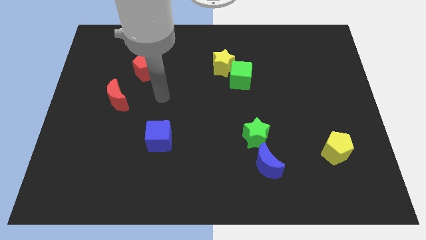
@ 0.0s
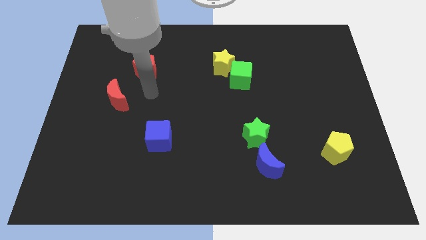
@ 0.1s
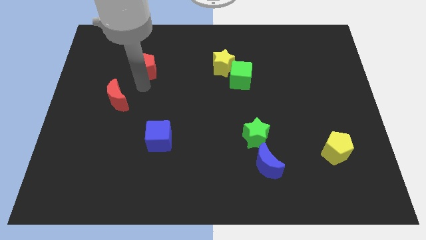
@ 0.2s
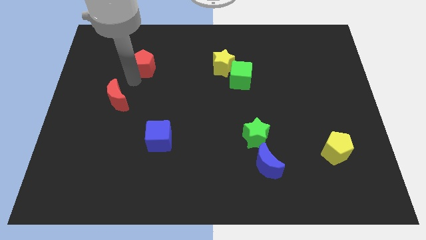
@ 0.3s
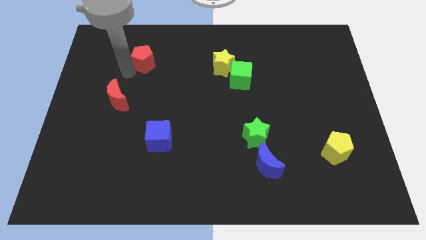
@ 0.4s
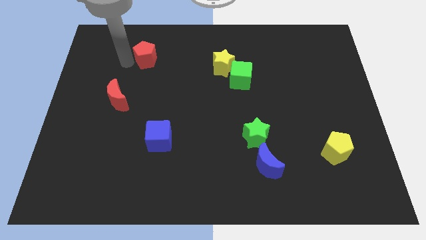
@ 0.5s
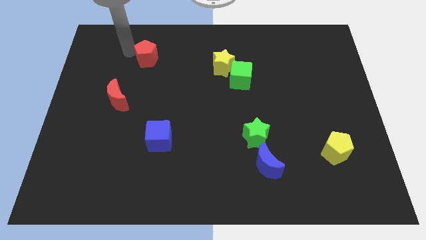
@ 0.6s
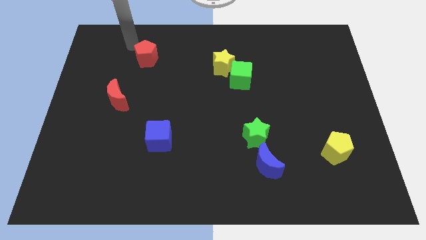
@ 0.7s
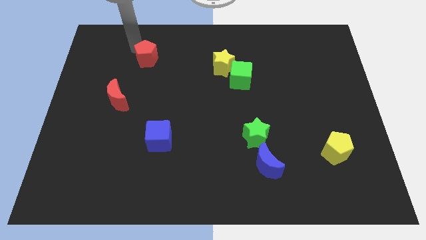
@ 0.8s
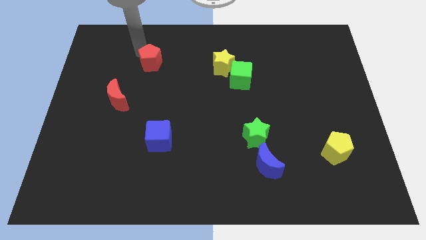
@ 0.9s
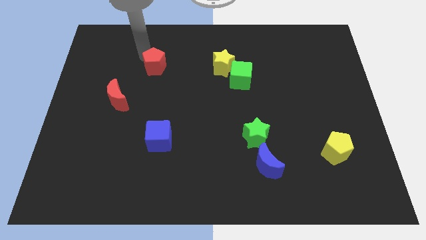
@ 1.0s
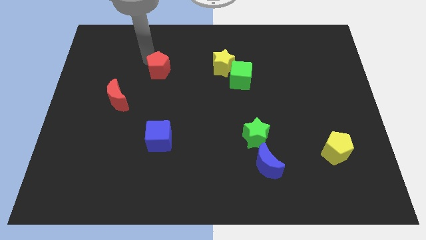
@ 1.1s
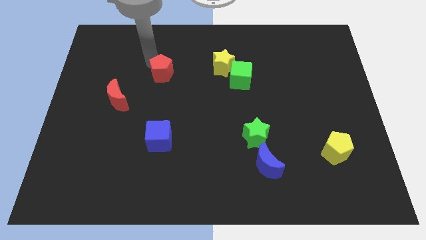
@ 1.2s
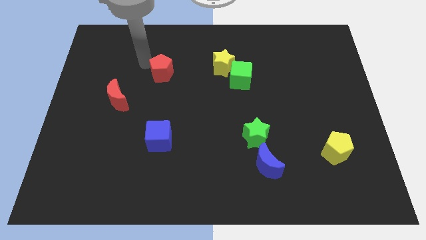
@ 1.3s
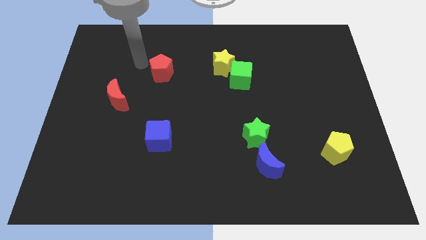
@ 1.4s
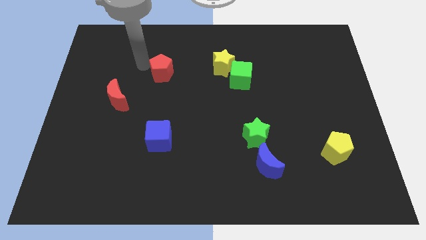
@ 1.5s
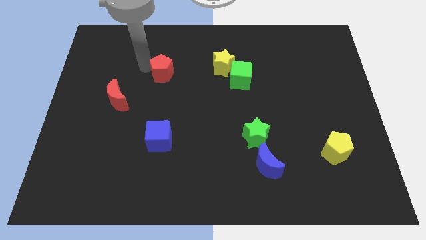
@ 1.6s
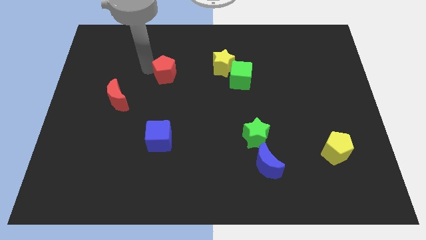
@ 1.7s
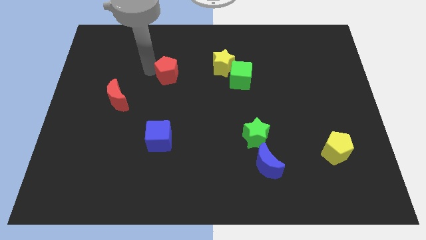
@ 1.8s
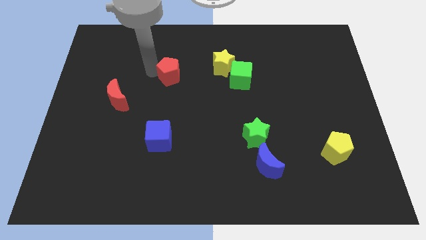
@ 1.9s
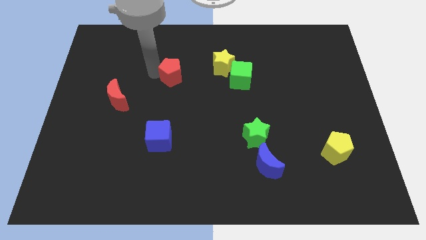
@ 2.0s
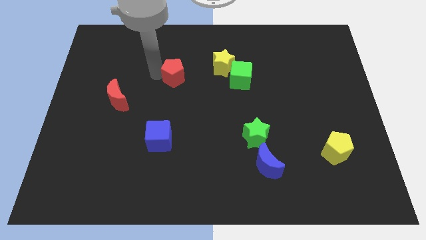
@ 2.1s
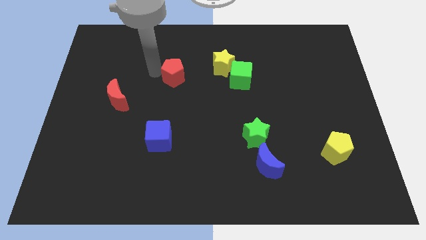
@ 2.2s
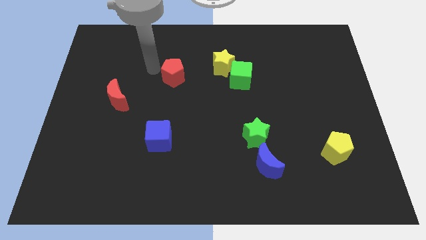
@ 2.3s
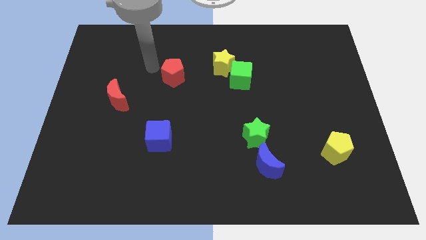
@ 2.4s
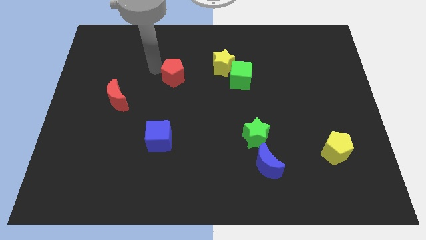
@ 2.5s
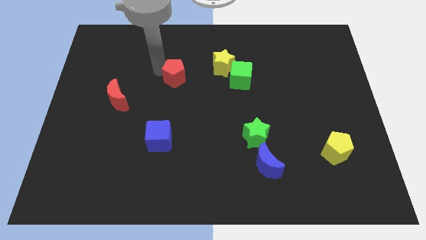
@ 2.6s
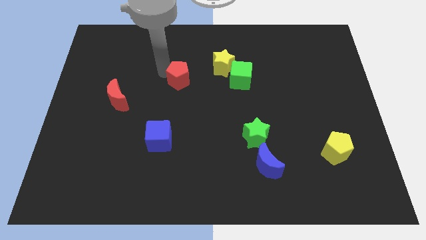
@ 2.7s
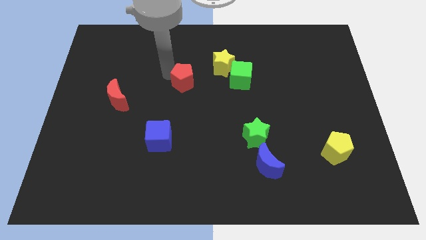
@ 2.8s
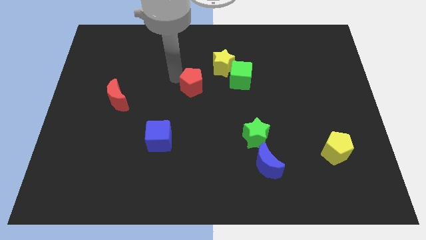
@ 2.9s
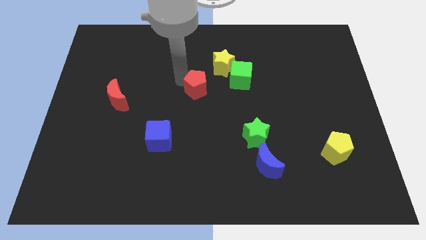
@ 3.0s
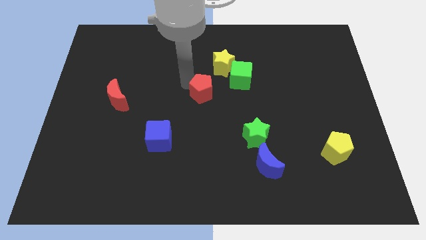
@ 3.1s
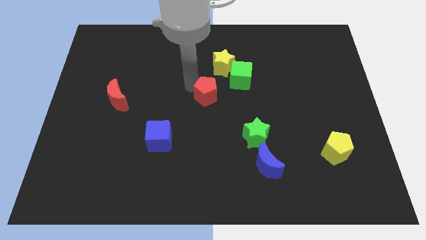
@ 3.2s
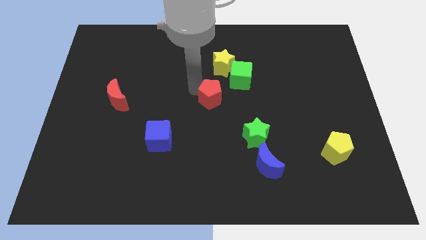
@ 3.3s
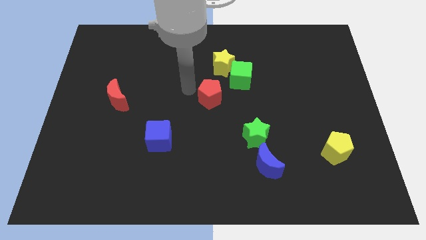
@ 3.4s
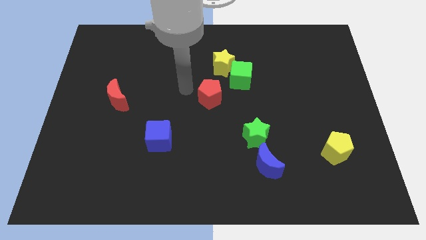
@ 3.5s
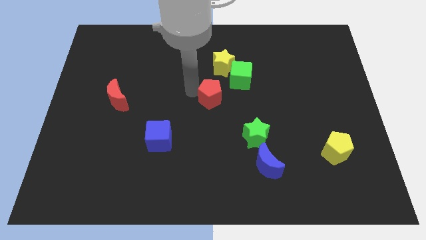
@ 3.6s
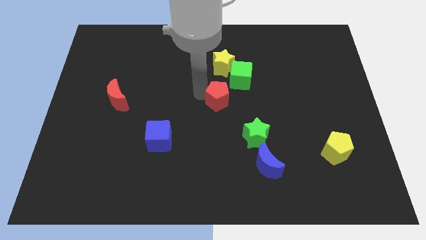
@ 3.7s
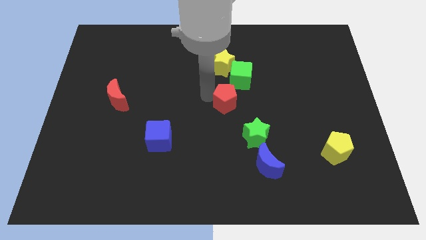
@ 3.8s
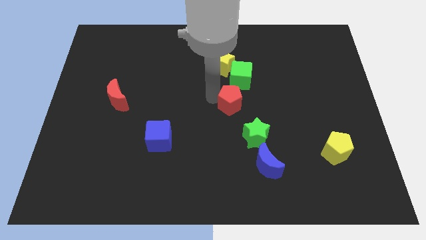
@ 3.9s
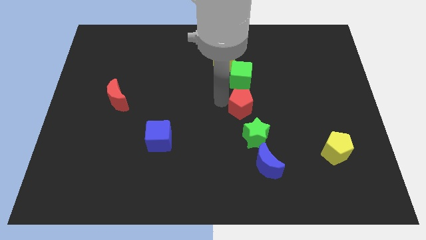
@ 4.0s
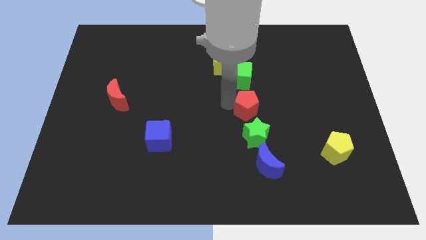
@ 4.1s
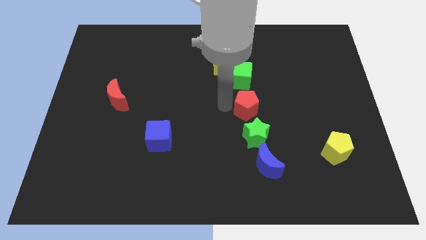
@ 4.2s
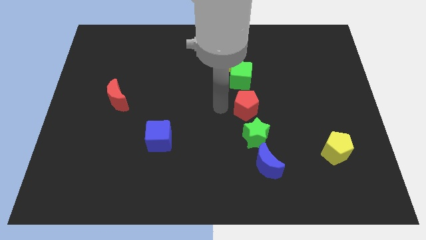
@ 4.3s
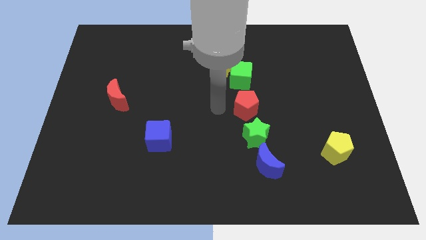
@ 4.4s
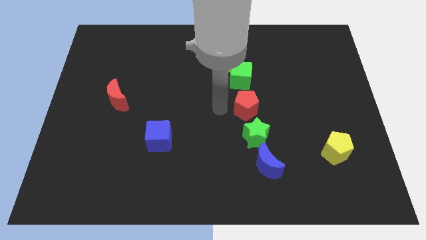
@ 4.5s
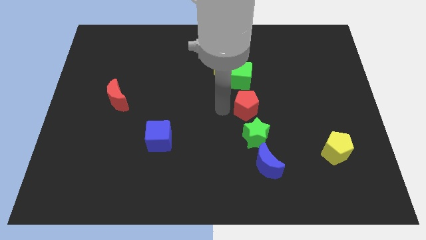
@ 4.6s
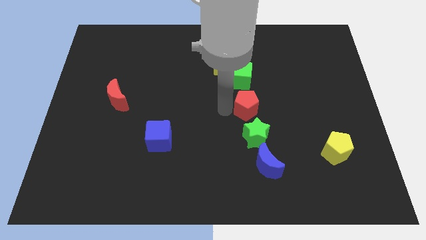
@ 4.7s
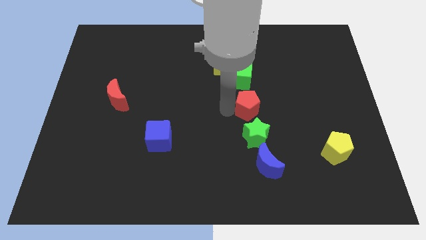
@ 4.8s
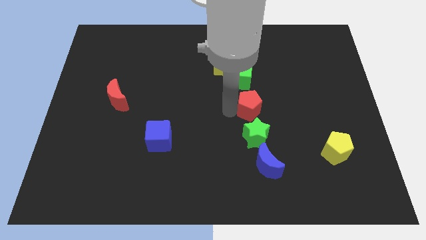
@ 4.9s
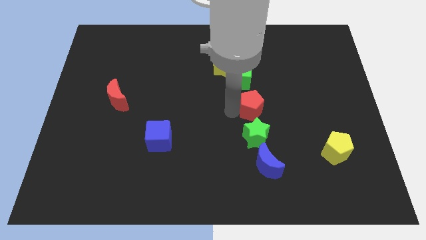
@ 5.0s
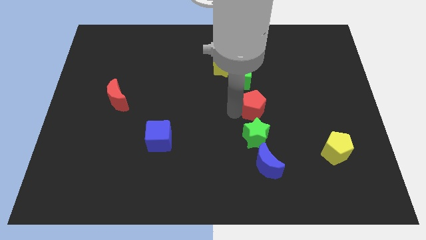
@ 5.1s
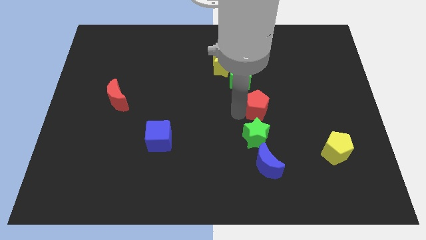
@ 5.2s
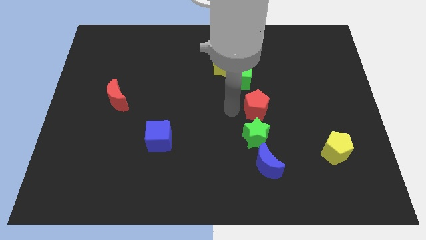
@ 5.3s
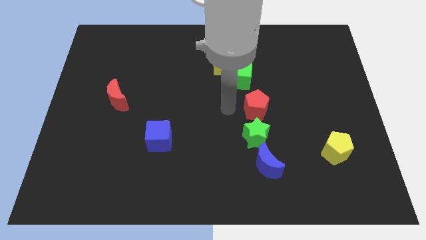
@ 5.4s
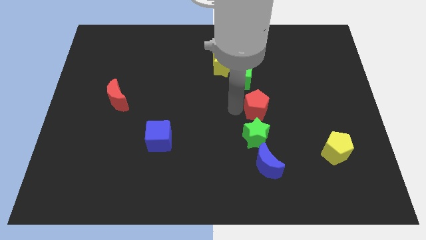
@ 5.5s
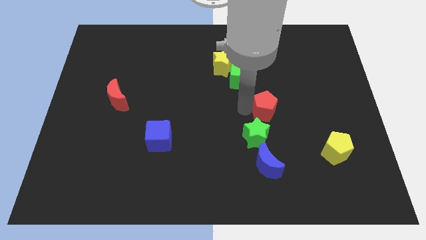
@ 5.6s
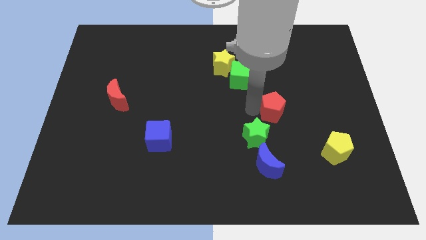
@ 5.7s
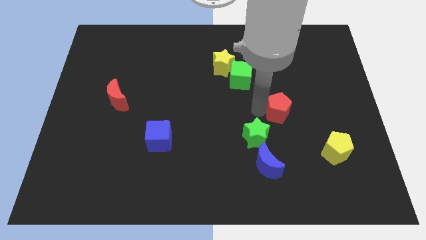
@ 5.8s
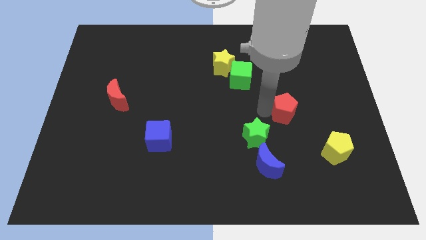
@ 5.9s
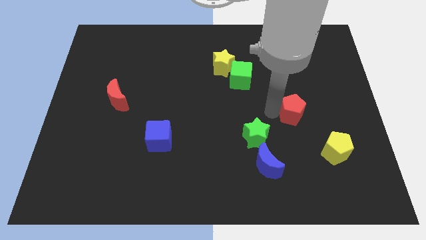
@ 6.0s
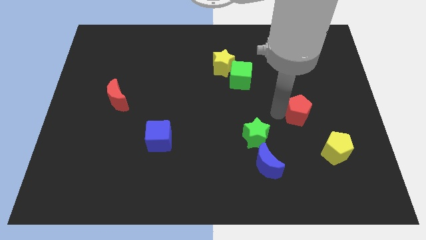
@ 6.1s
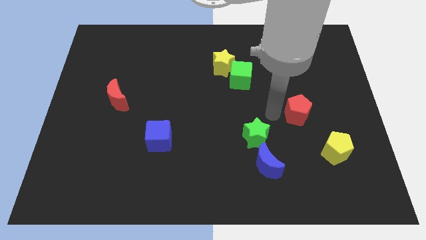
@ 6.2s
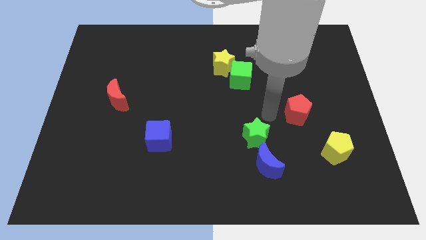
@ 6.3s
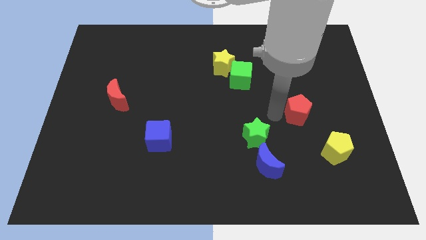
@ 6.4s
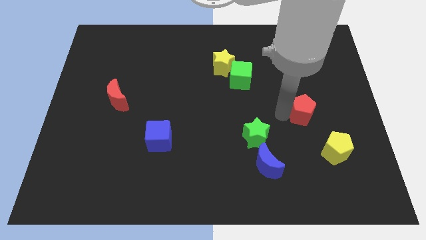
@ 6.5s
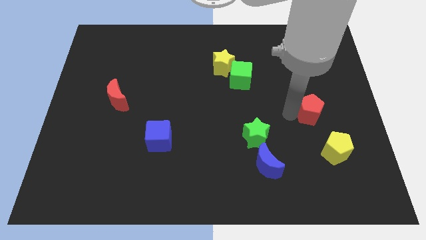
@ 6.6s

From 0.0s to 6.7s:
move the red pentagon to the top side of the yellow pentagon
